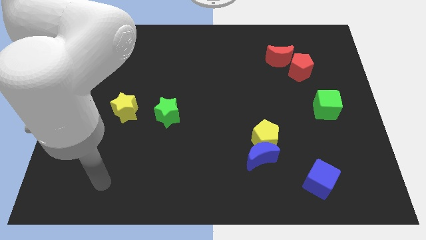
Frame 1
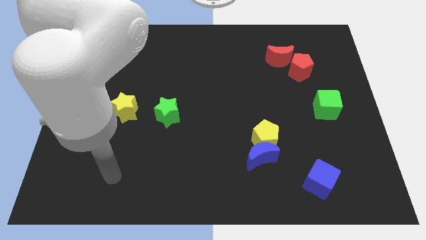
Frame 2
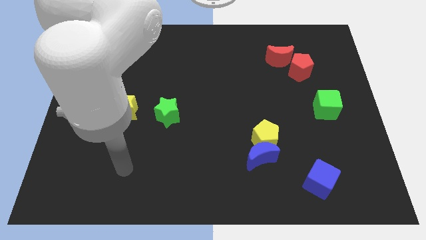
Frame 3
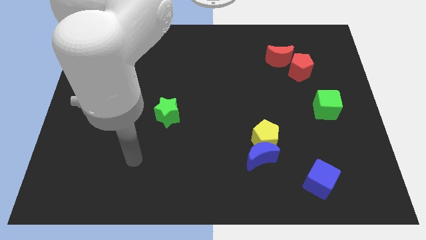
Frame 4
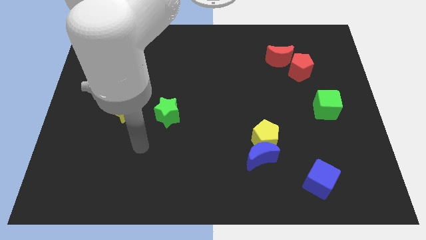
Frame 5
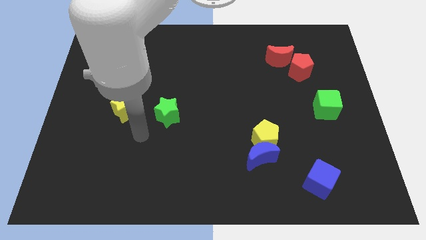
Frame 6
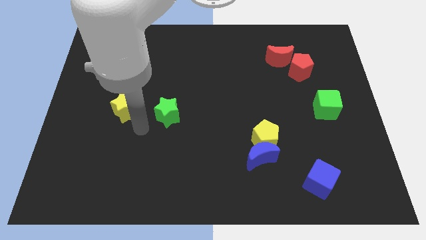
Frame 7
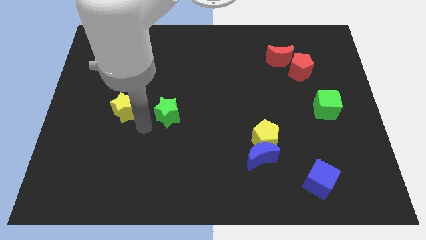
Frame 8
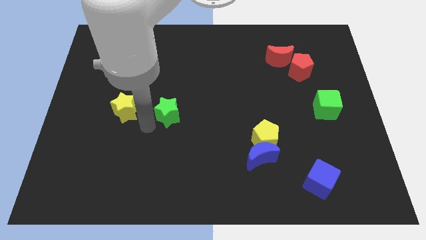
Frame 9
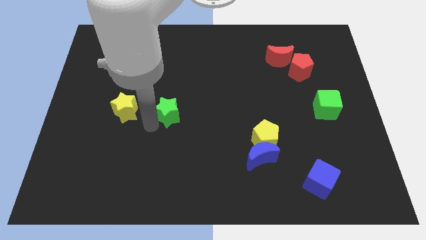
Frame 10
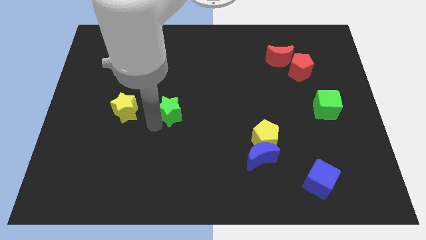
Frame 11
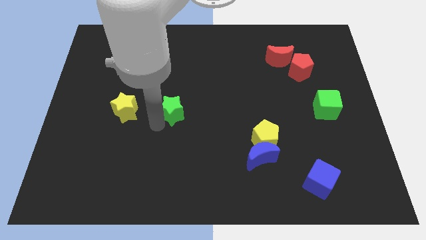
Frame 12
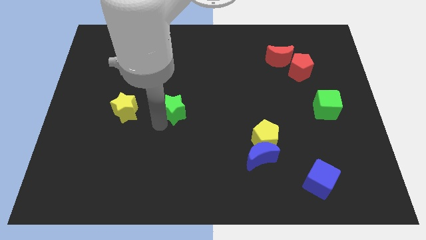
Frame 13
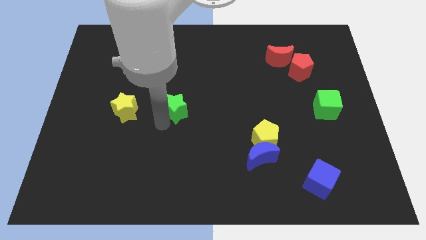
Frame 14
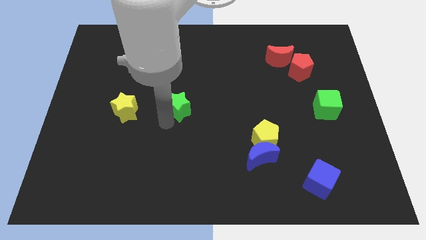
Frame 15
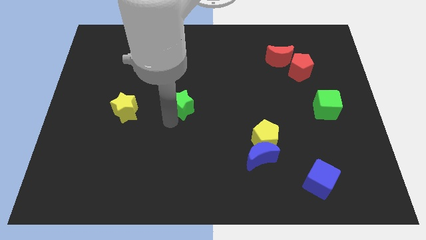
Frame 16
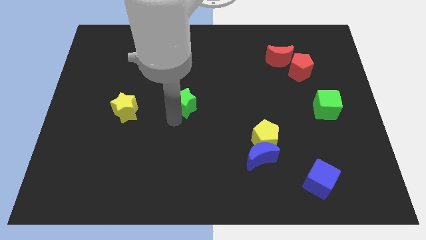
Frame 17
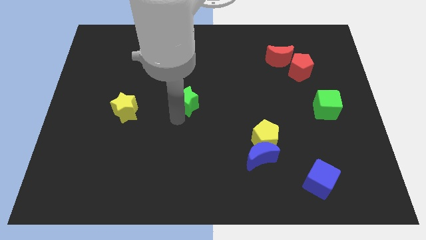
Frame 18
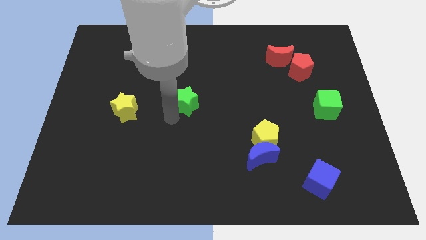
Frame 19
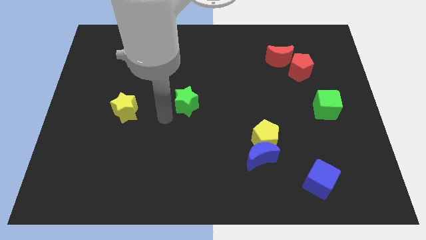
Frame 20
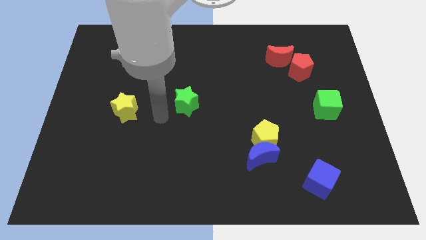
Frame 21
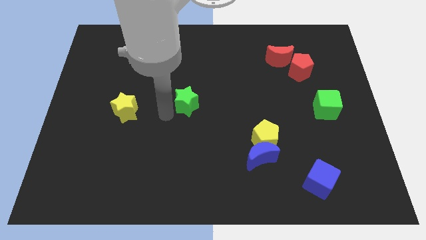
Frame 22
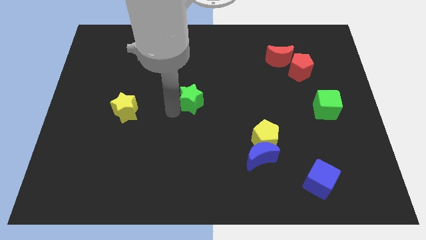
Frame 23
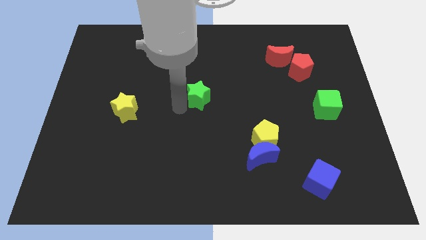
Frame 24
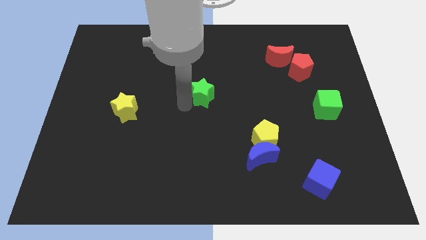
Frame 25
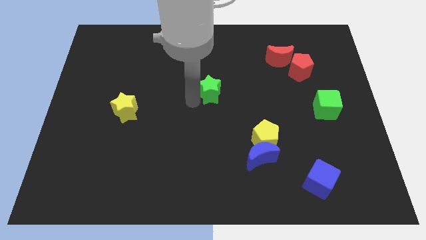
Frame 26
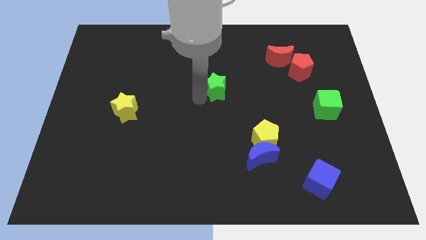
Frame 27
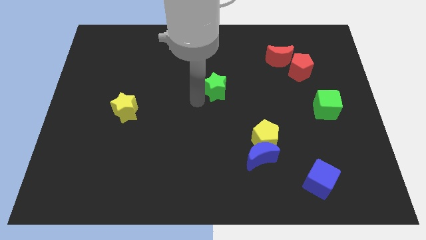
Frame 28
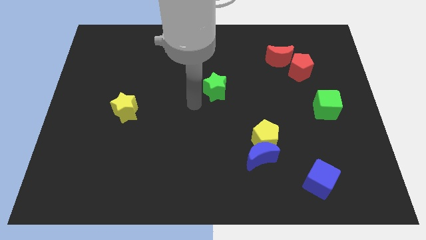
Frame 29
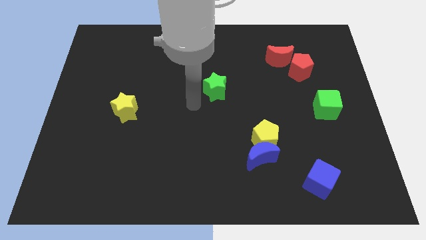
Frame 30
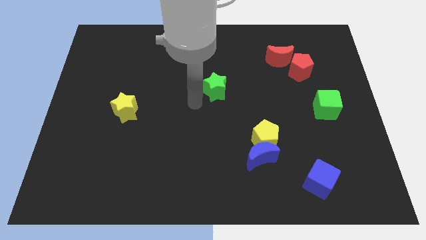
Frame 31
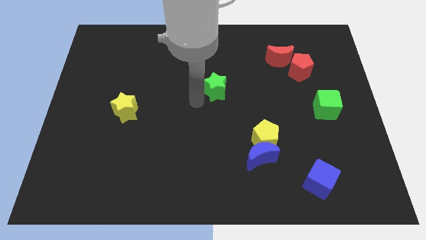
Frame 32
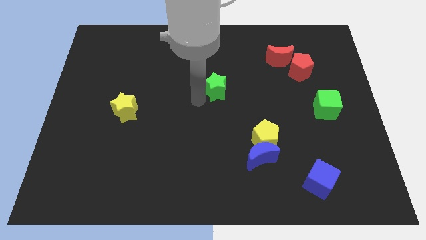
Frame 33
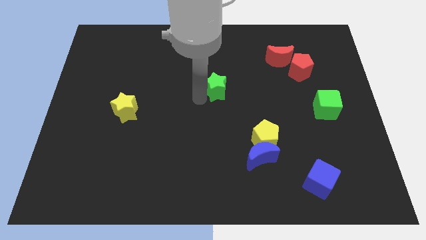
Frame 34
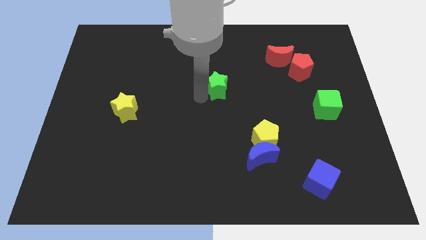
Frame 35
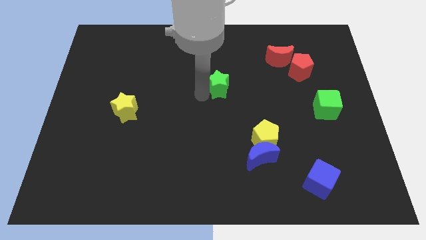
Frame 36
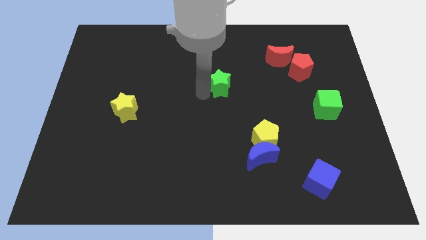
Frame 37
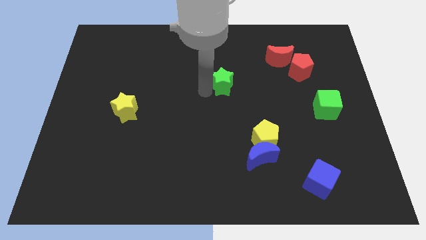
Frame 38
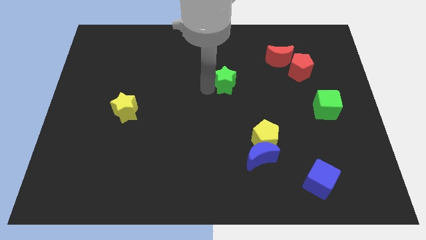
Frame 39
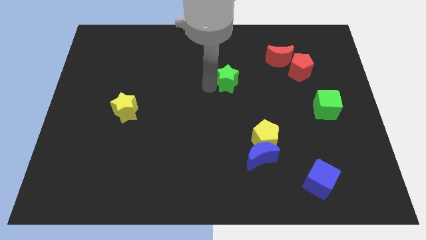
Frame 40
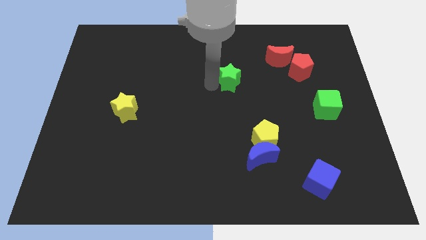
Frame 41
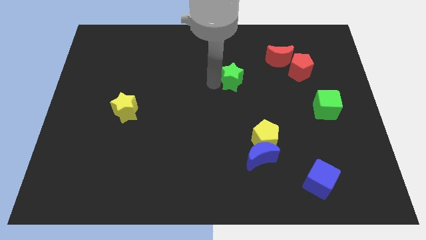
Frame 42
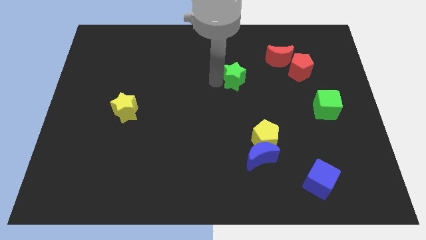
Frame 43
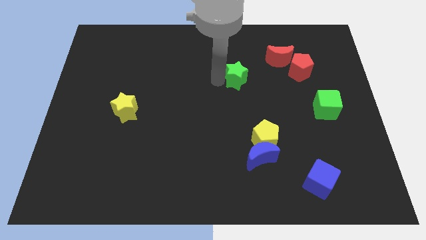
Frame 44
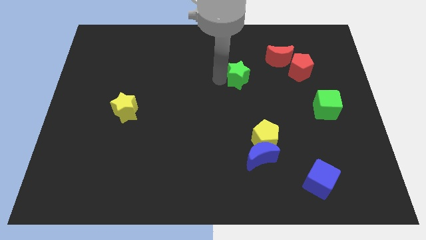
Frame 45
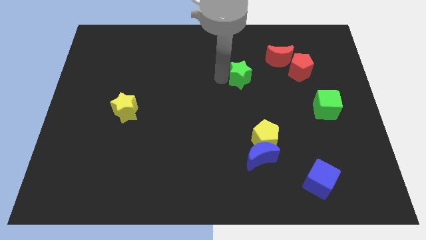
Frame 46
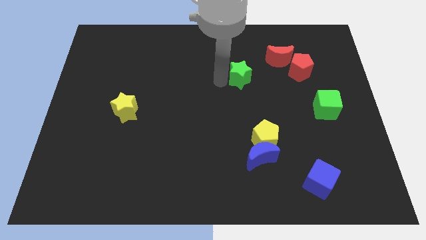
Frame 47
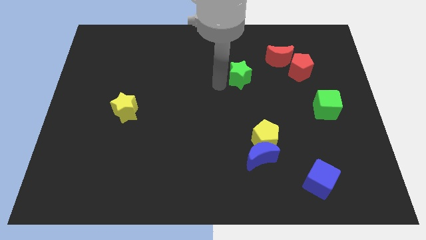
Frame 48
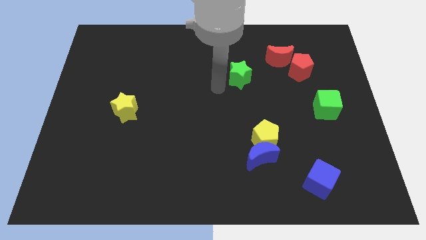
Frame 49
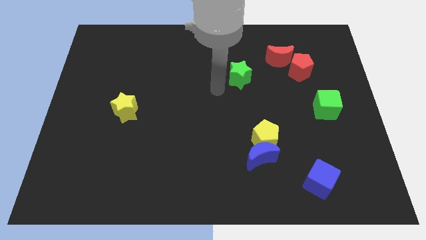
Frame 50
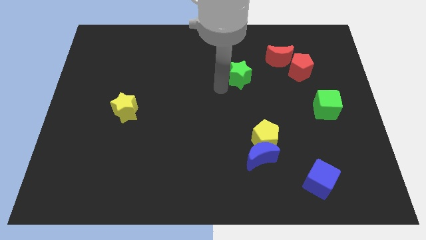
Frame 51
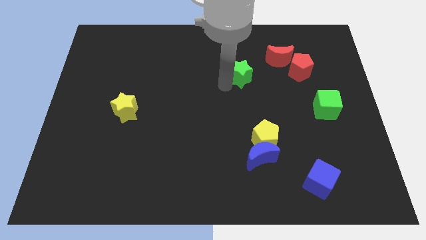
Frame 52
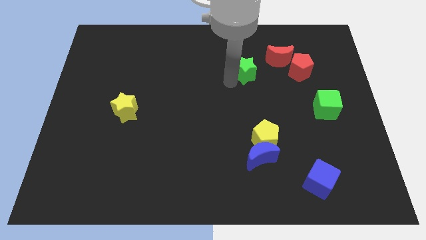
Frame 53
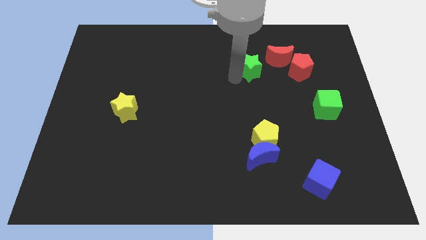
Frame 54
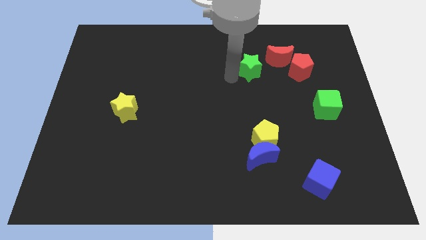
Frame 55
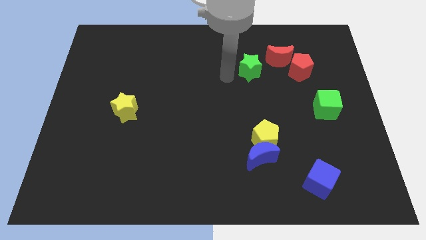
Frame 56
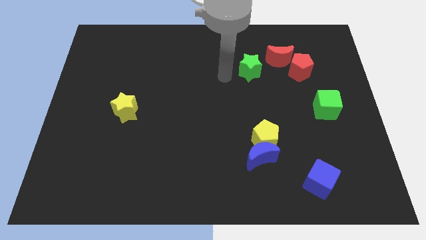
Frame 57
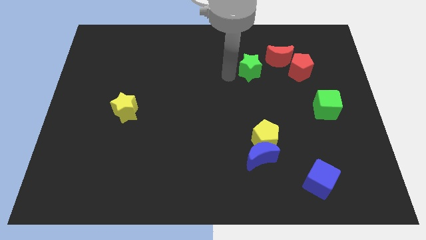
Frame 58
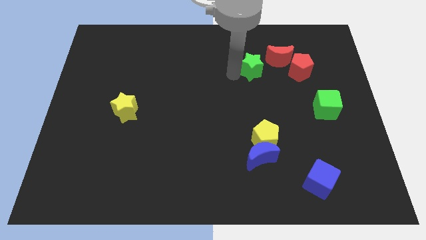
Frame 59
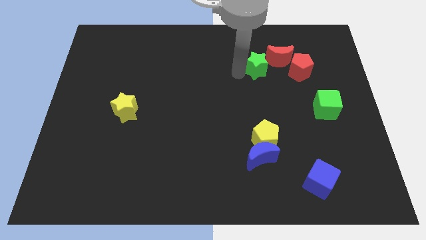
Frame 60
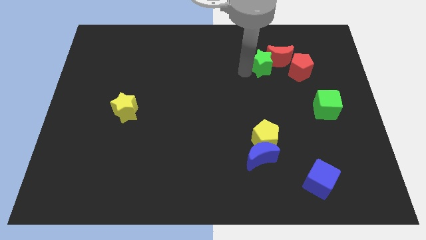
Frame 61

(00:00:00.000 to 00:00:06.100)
slide the green star close to the red moon
